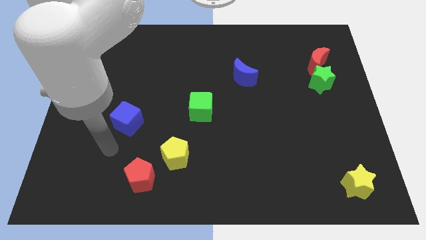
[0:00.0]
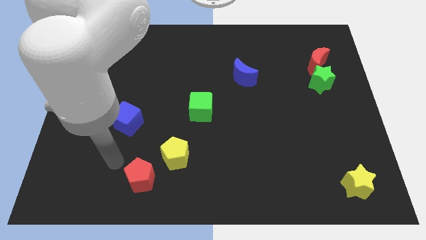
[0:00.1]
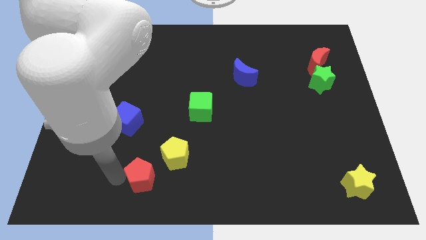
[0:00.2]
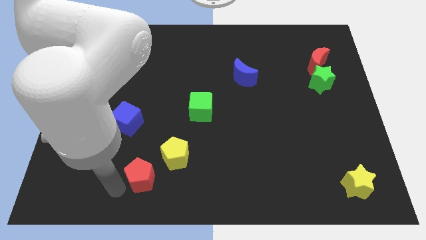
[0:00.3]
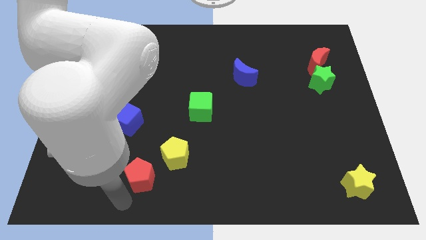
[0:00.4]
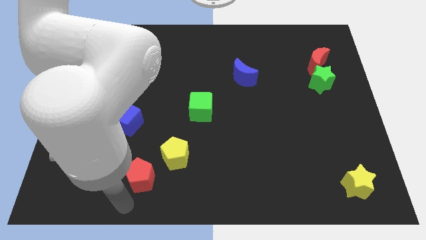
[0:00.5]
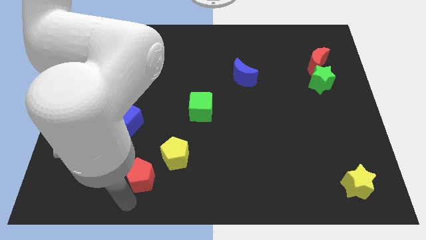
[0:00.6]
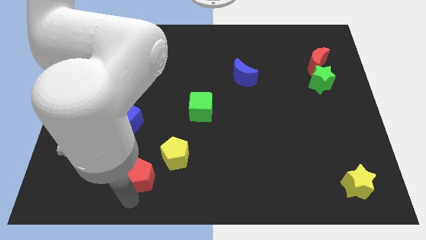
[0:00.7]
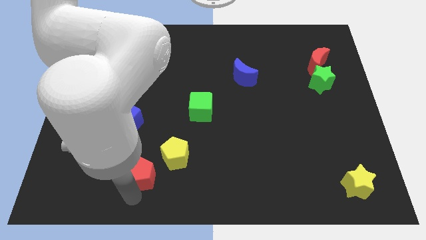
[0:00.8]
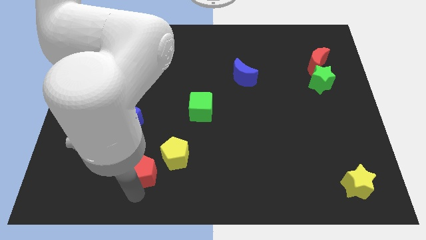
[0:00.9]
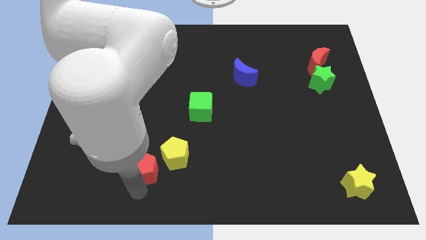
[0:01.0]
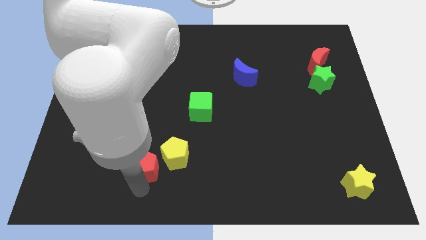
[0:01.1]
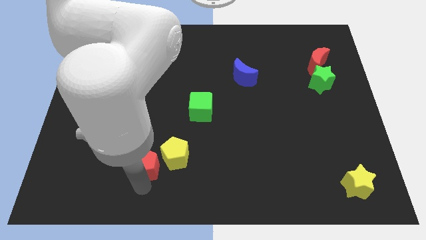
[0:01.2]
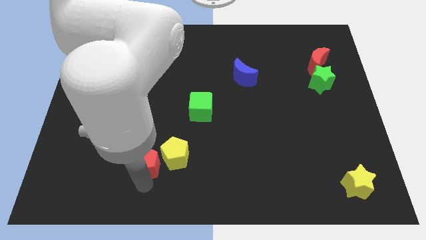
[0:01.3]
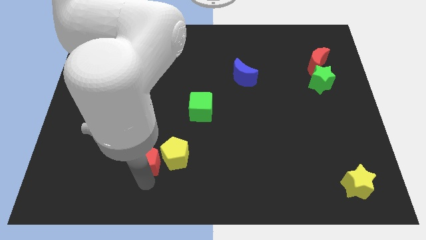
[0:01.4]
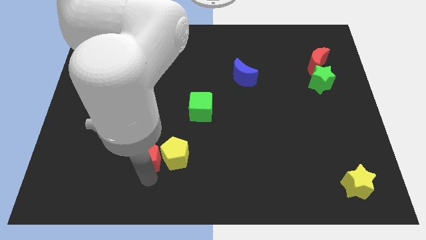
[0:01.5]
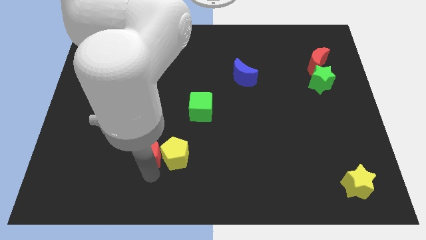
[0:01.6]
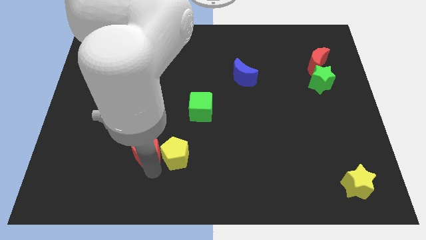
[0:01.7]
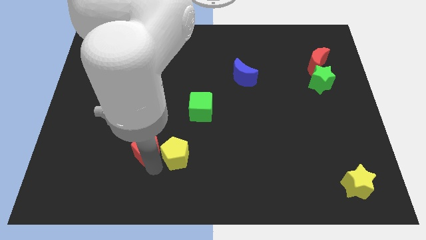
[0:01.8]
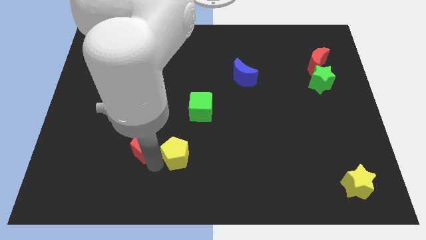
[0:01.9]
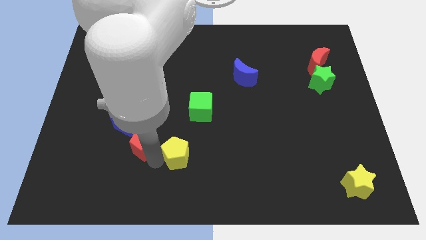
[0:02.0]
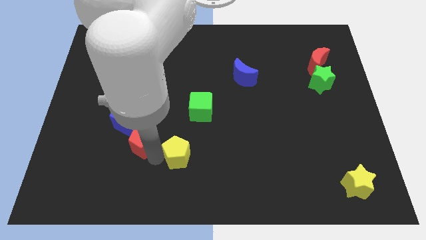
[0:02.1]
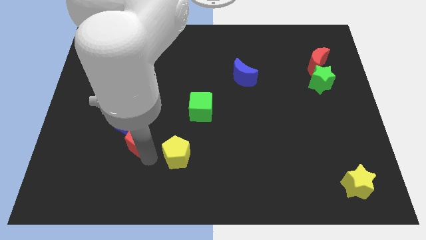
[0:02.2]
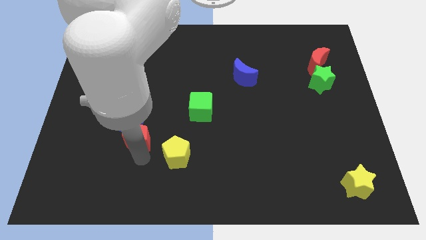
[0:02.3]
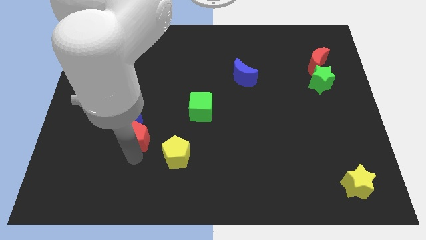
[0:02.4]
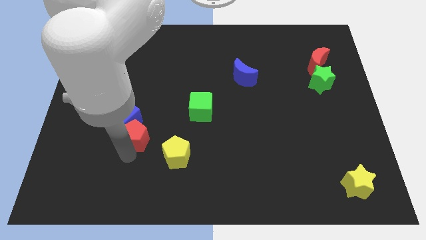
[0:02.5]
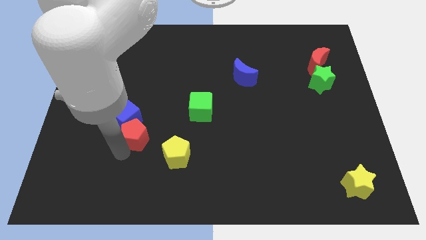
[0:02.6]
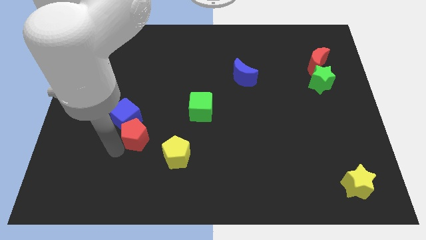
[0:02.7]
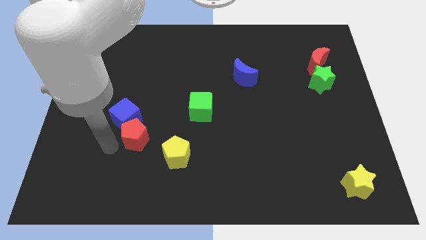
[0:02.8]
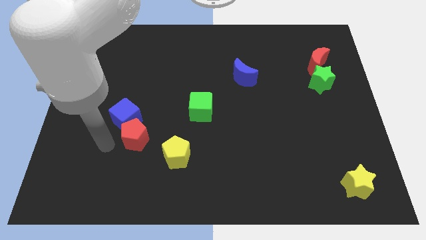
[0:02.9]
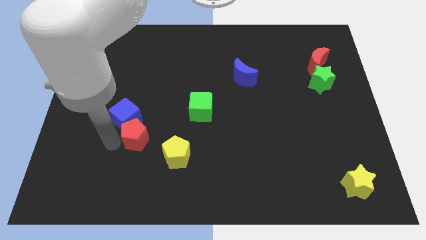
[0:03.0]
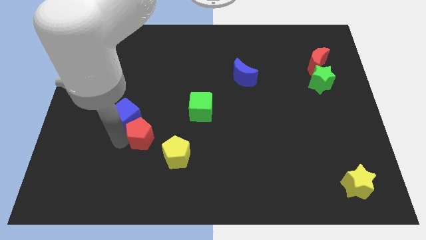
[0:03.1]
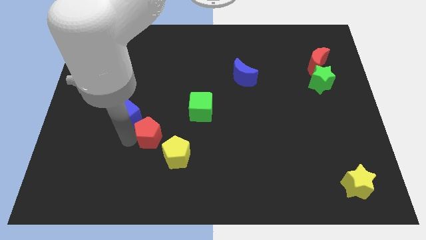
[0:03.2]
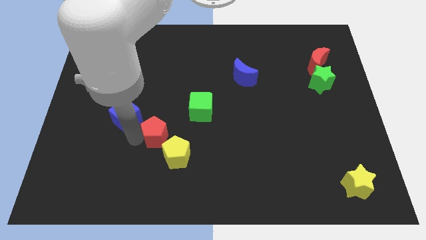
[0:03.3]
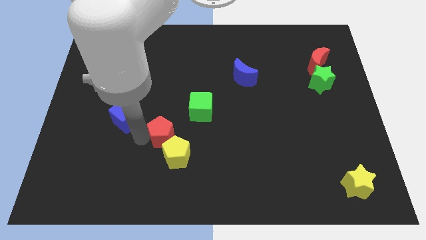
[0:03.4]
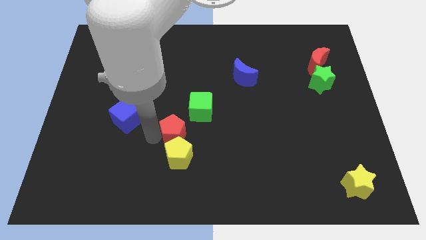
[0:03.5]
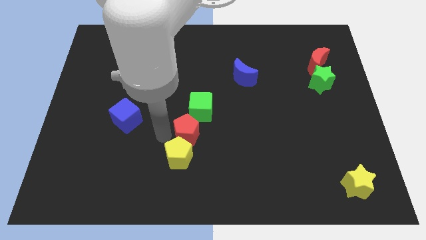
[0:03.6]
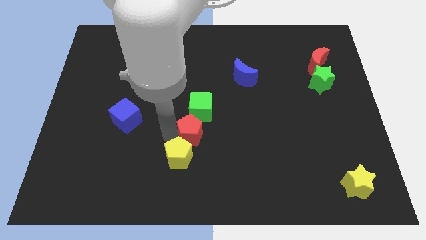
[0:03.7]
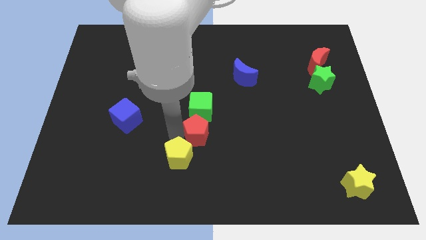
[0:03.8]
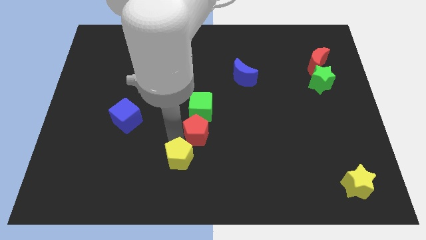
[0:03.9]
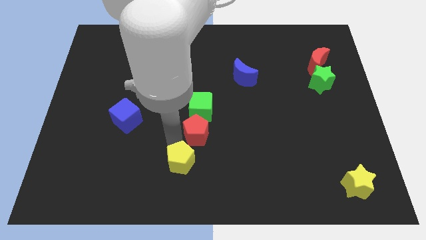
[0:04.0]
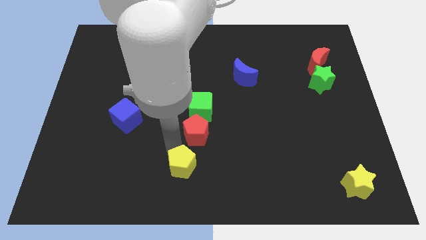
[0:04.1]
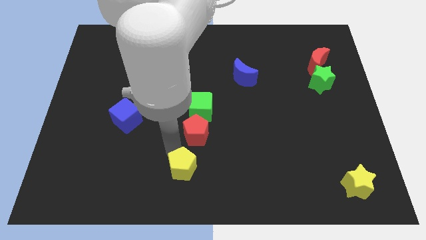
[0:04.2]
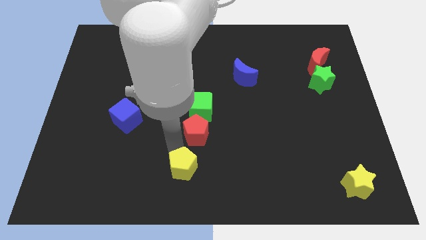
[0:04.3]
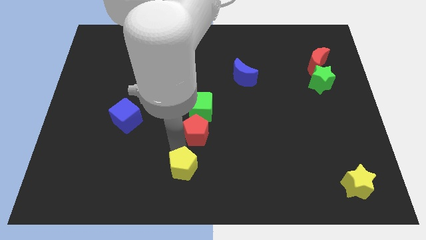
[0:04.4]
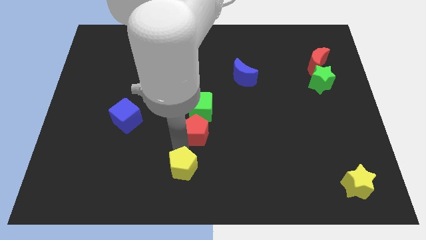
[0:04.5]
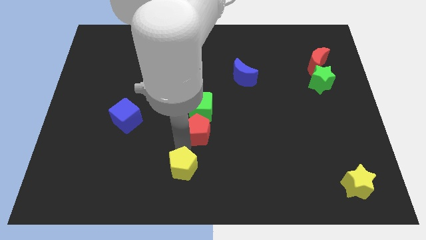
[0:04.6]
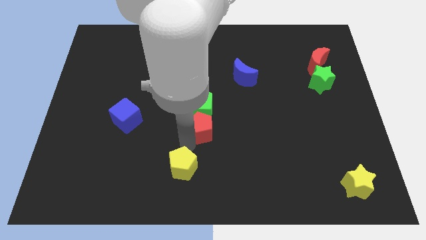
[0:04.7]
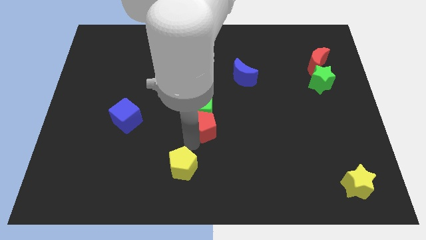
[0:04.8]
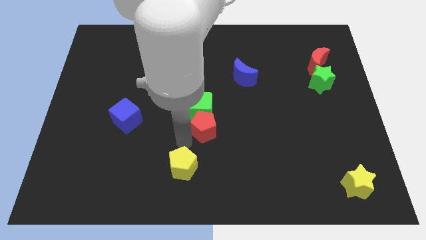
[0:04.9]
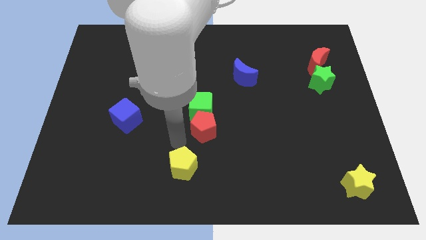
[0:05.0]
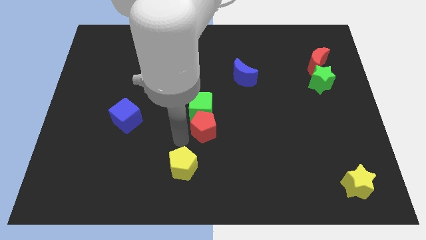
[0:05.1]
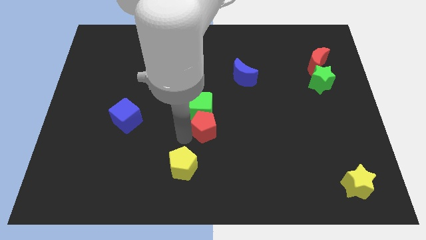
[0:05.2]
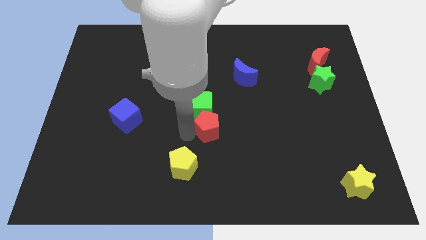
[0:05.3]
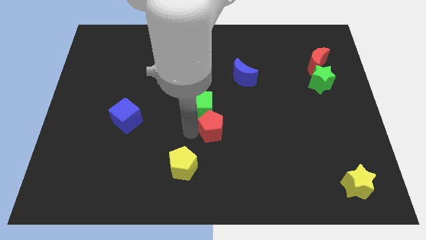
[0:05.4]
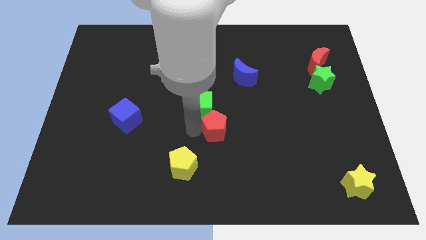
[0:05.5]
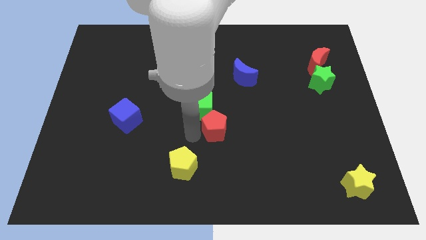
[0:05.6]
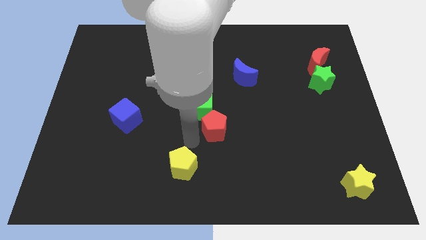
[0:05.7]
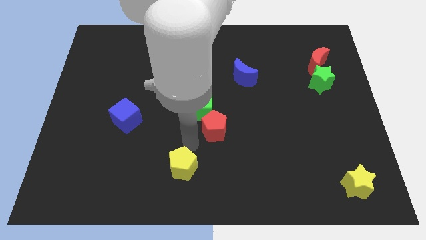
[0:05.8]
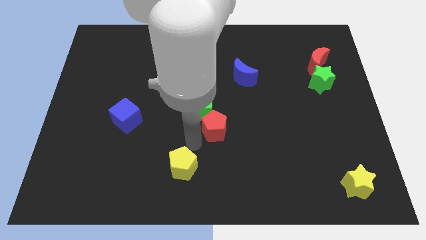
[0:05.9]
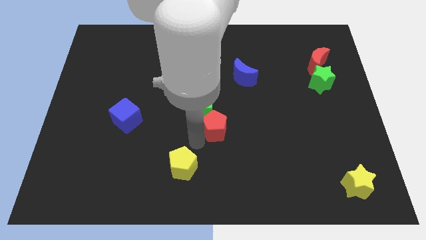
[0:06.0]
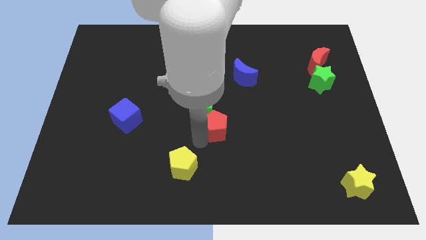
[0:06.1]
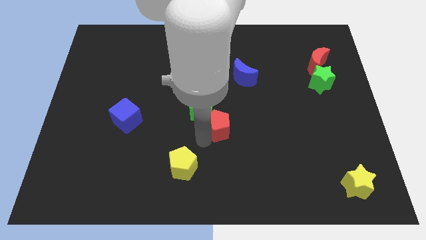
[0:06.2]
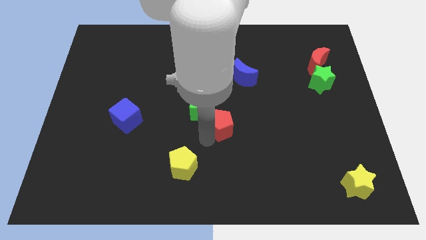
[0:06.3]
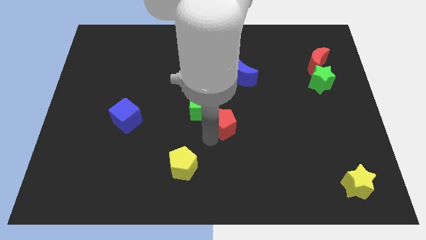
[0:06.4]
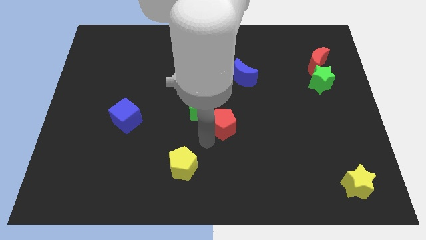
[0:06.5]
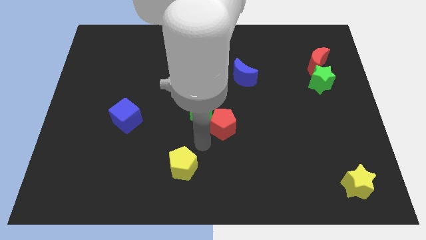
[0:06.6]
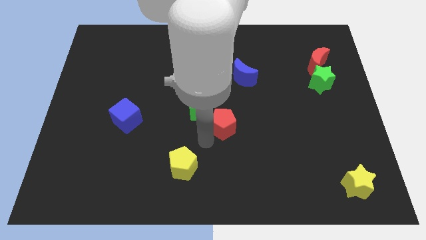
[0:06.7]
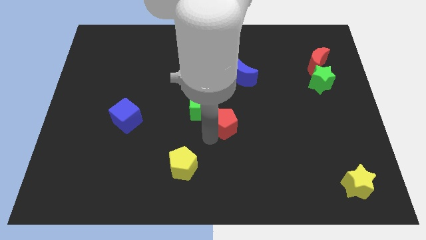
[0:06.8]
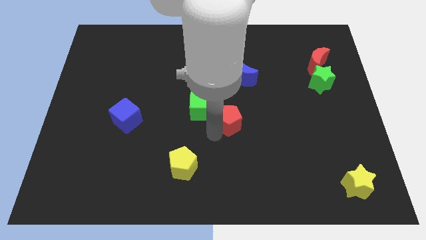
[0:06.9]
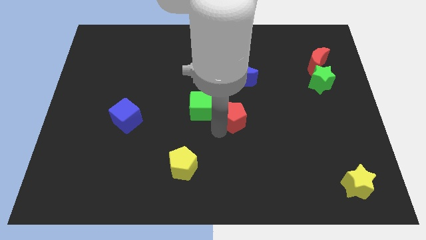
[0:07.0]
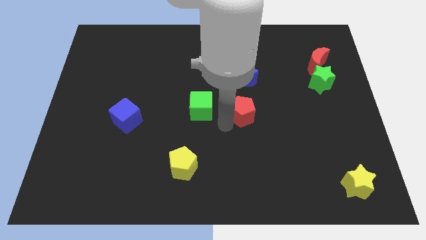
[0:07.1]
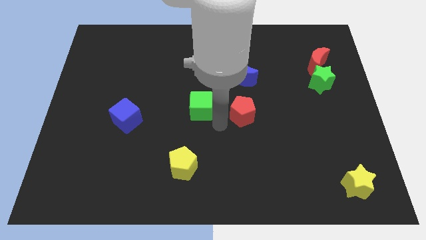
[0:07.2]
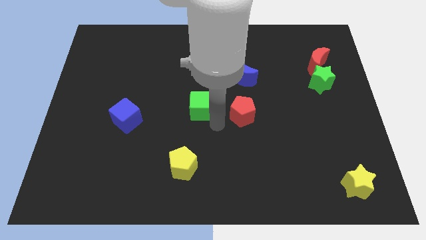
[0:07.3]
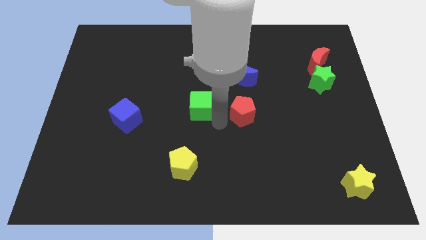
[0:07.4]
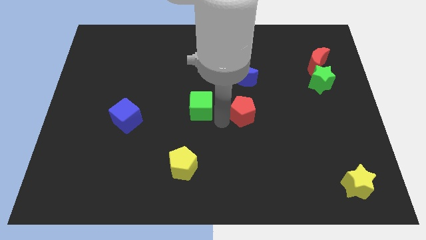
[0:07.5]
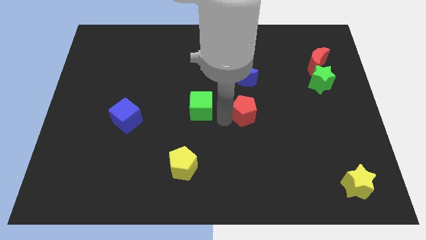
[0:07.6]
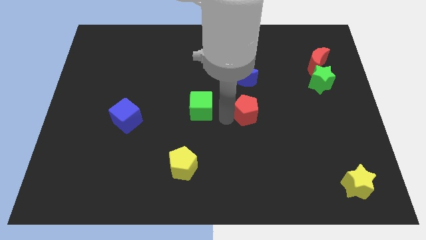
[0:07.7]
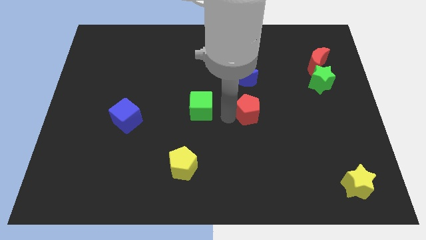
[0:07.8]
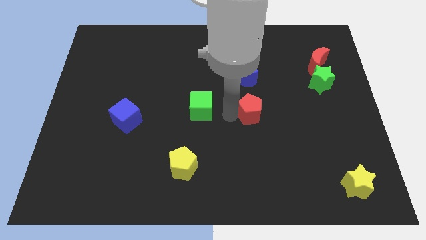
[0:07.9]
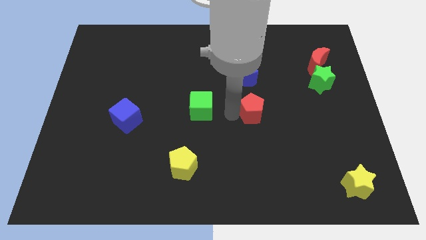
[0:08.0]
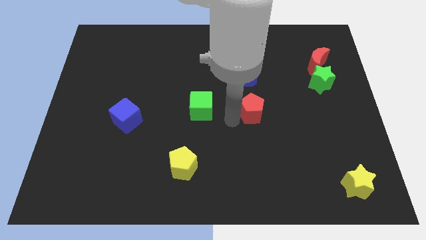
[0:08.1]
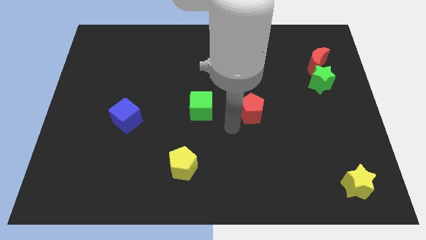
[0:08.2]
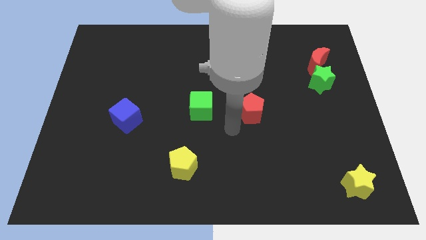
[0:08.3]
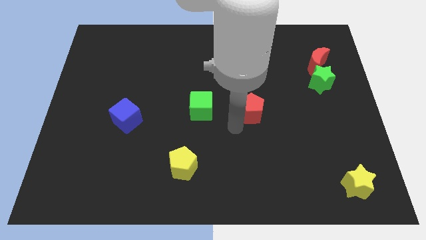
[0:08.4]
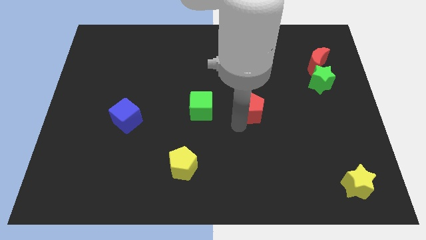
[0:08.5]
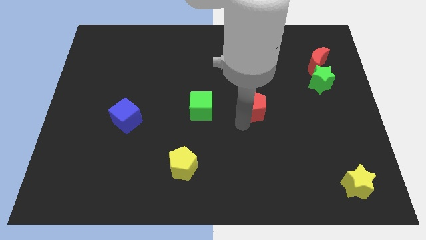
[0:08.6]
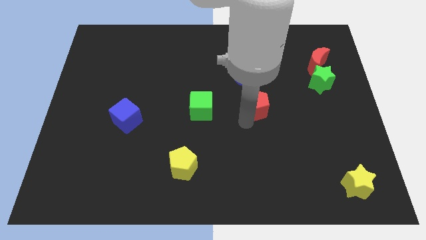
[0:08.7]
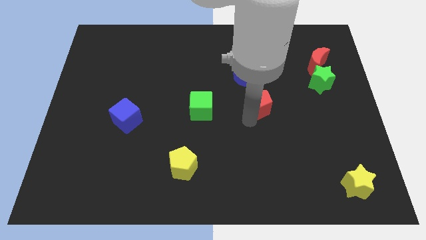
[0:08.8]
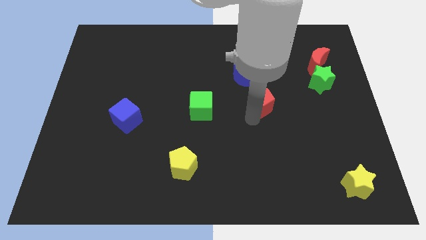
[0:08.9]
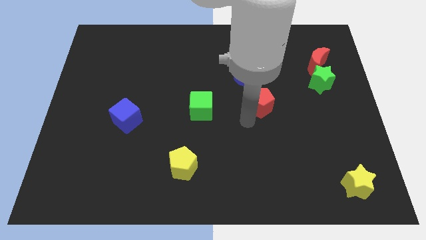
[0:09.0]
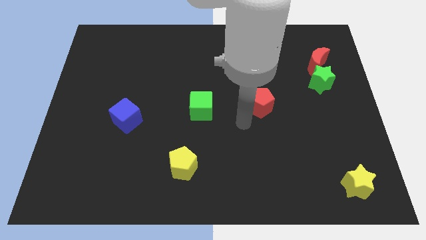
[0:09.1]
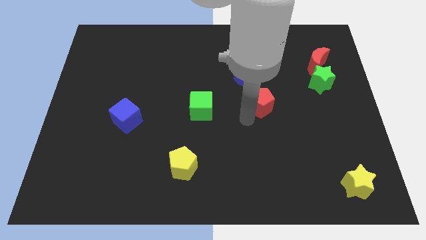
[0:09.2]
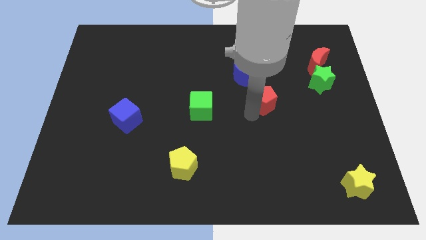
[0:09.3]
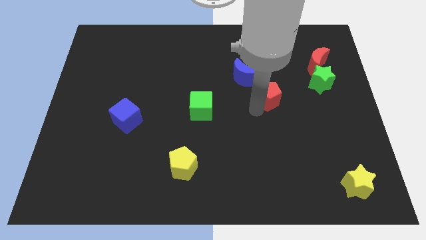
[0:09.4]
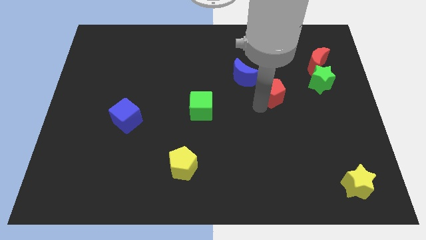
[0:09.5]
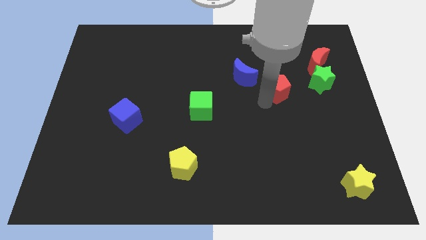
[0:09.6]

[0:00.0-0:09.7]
push the red pentagon to the right side of the blue moon
